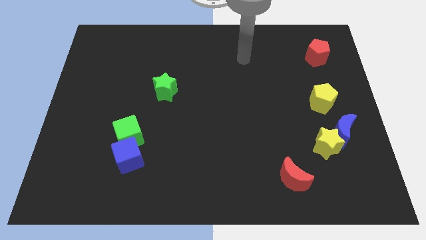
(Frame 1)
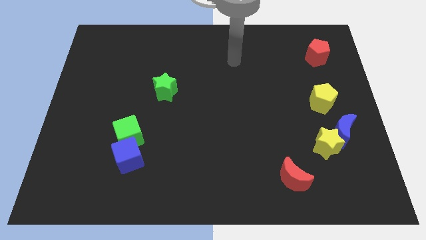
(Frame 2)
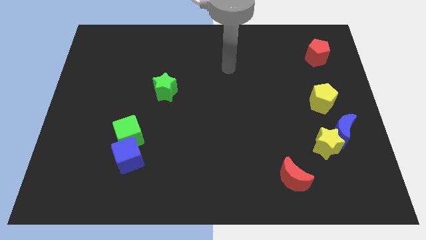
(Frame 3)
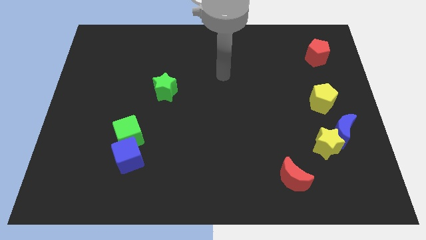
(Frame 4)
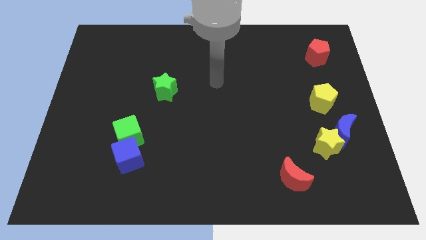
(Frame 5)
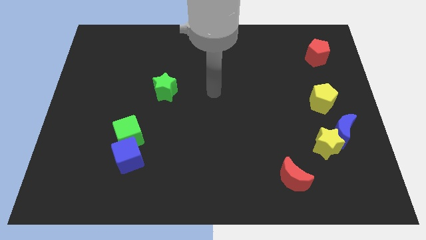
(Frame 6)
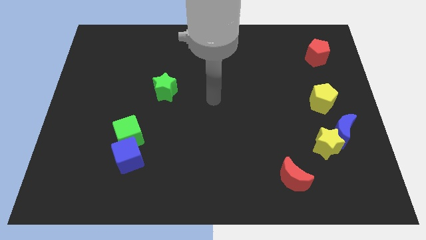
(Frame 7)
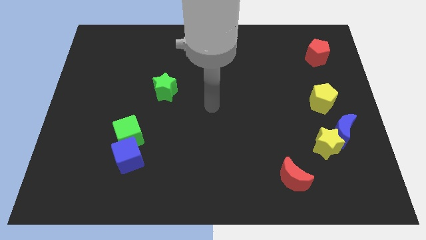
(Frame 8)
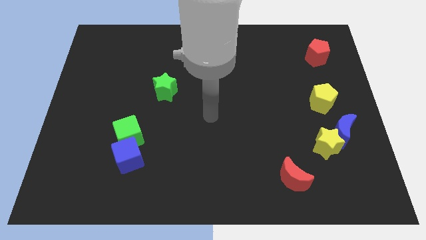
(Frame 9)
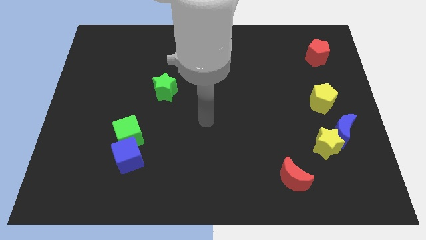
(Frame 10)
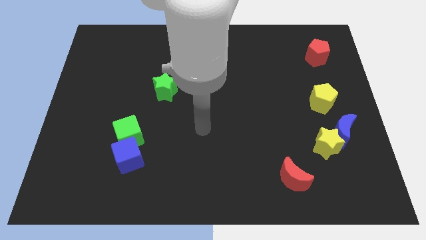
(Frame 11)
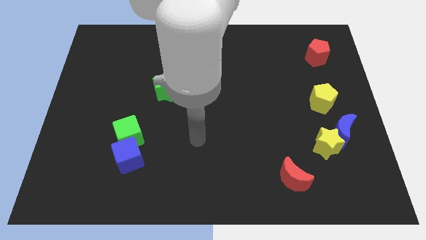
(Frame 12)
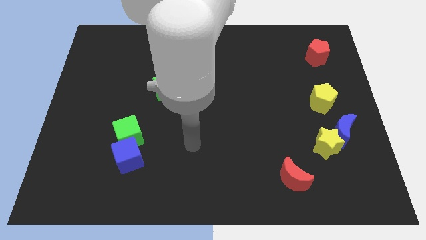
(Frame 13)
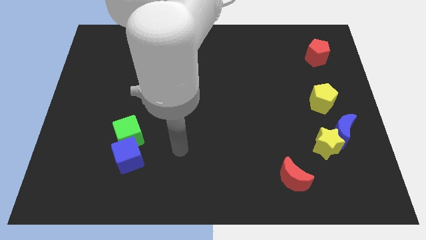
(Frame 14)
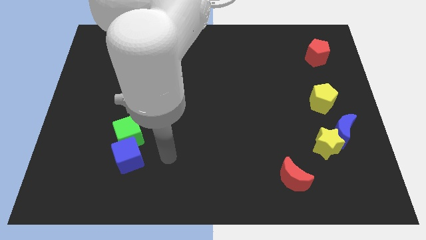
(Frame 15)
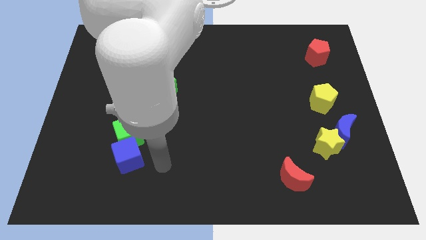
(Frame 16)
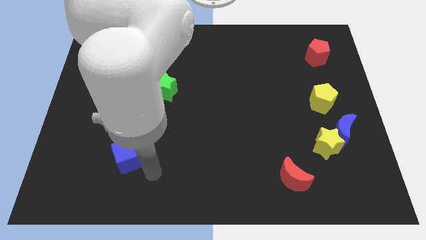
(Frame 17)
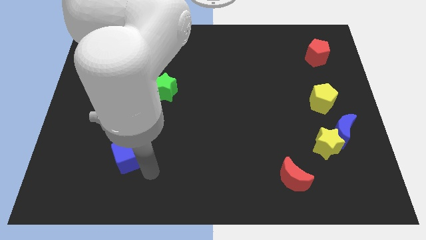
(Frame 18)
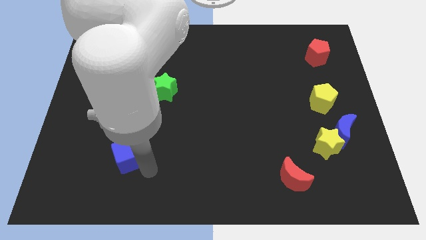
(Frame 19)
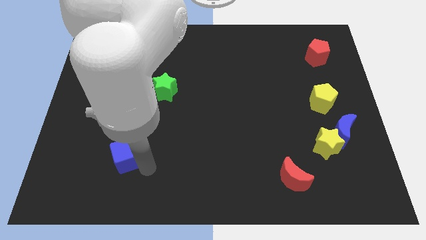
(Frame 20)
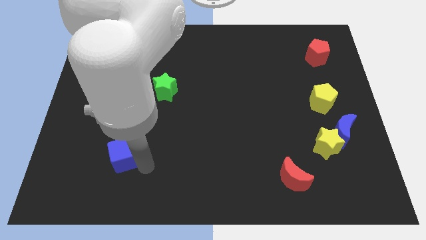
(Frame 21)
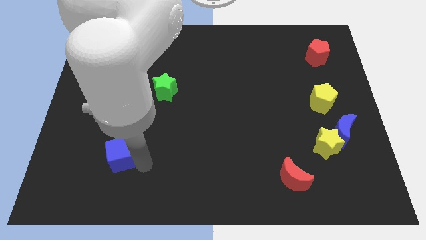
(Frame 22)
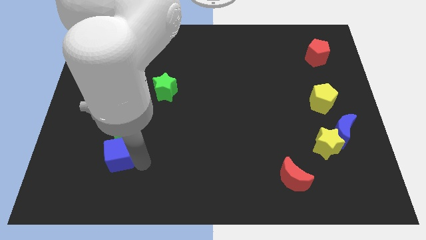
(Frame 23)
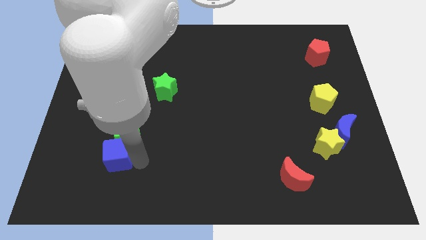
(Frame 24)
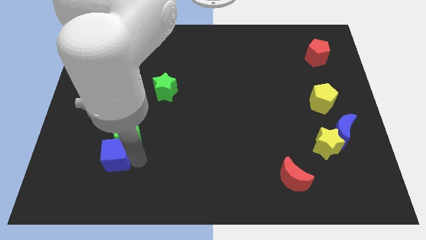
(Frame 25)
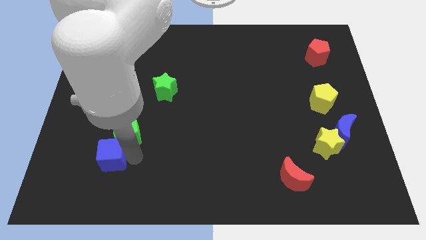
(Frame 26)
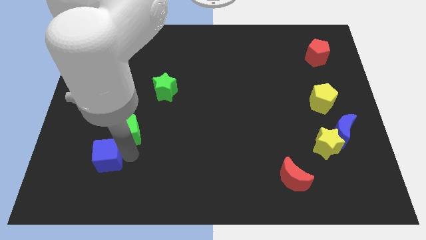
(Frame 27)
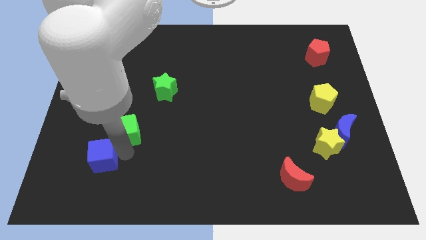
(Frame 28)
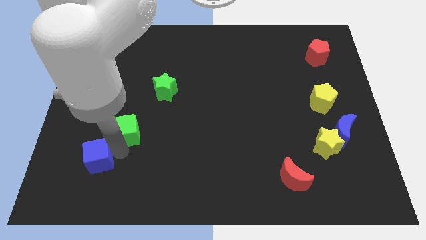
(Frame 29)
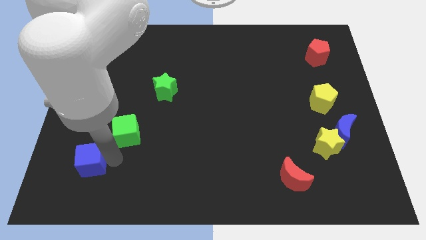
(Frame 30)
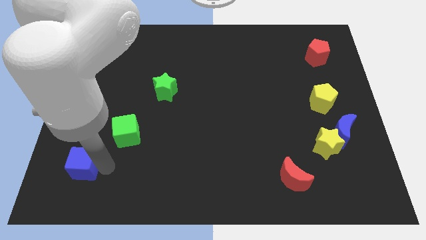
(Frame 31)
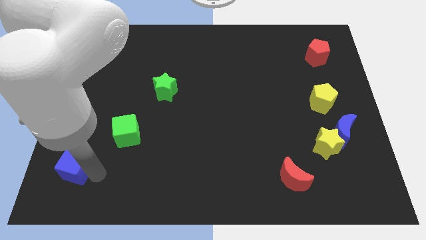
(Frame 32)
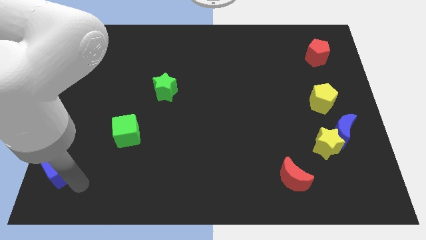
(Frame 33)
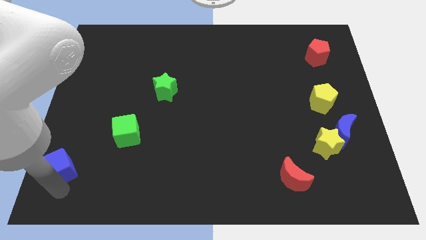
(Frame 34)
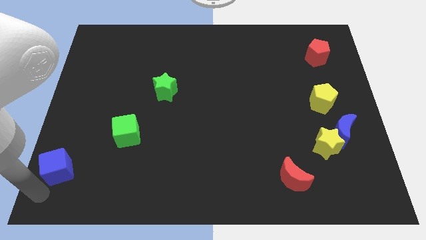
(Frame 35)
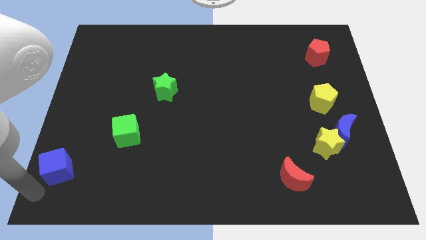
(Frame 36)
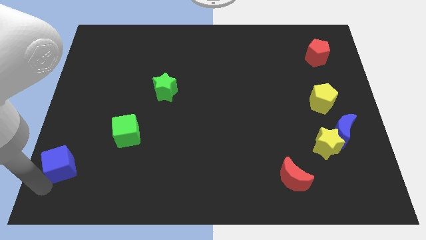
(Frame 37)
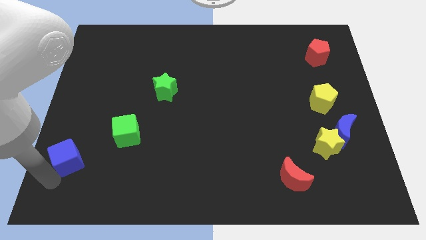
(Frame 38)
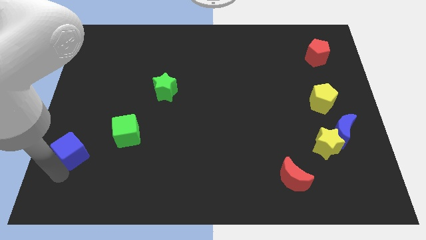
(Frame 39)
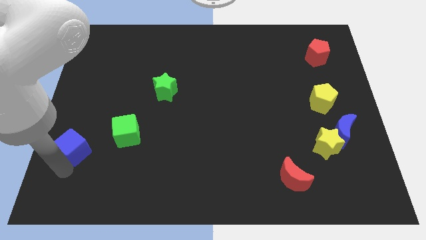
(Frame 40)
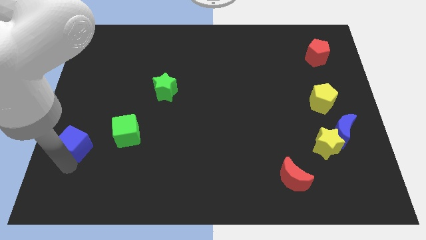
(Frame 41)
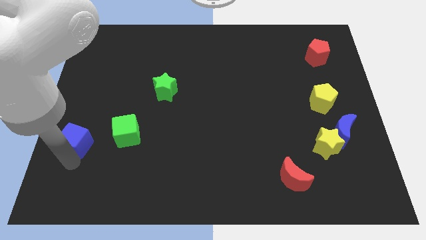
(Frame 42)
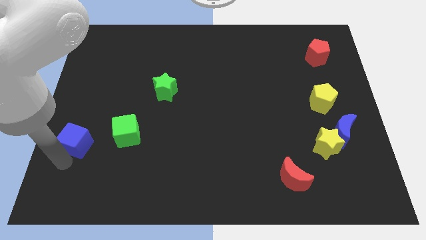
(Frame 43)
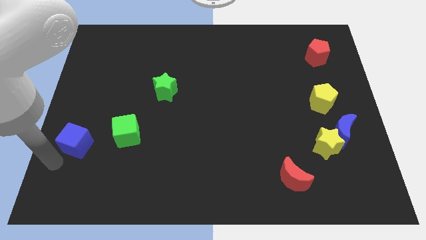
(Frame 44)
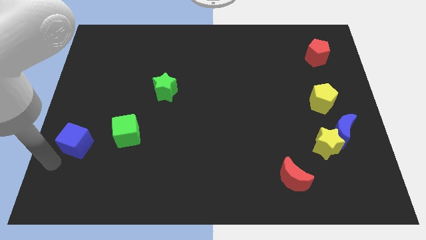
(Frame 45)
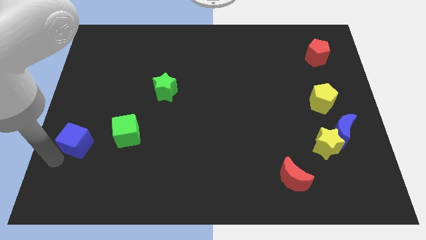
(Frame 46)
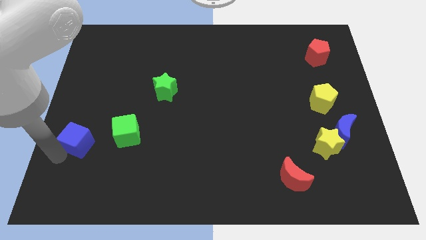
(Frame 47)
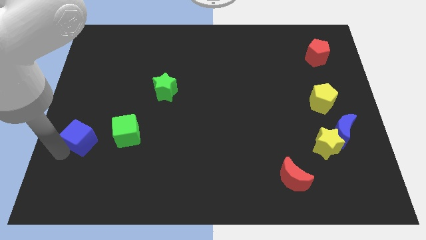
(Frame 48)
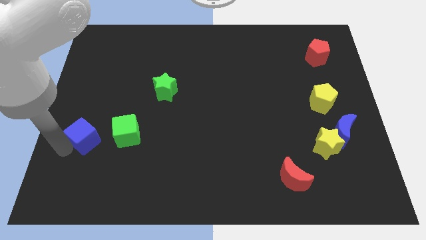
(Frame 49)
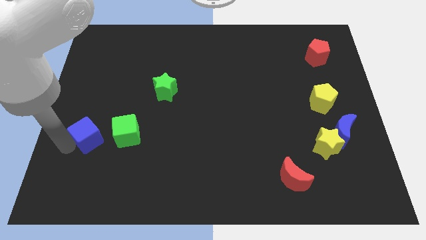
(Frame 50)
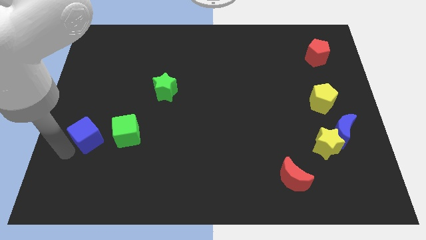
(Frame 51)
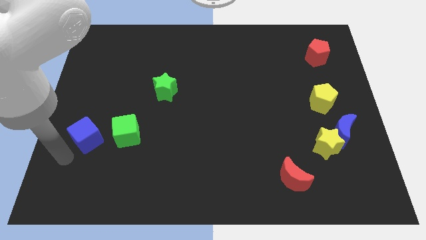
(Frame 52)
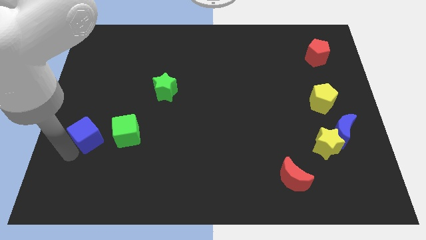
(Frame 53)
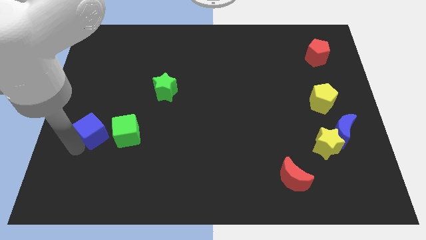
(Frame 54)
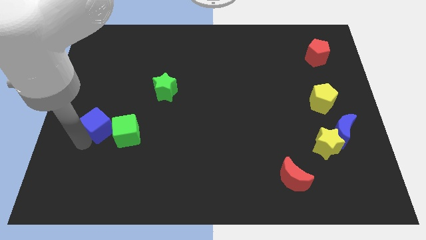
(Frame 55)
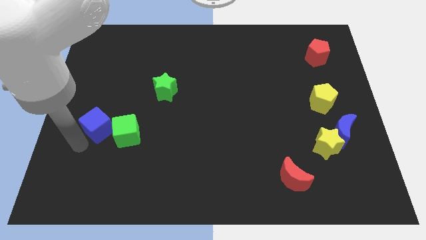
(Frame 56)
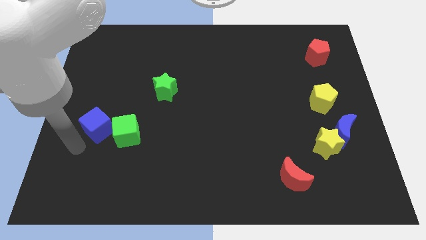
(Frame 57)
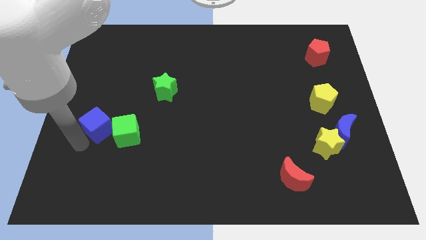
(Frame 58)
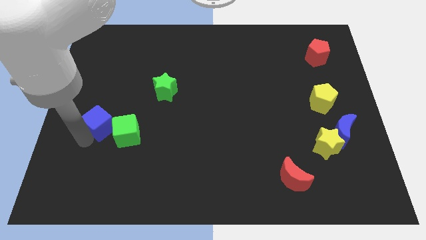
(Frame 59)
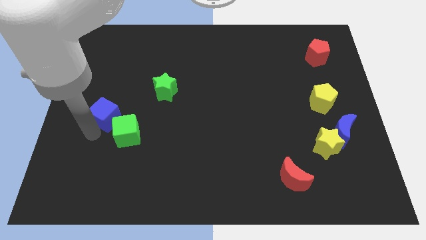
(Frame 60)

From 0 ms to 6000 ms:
push the blue cube slightly up

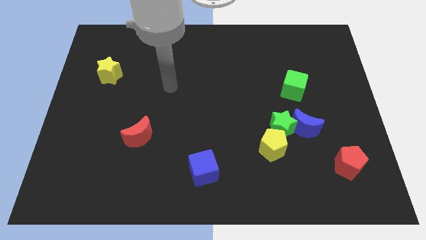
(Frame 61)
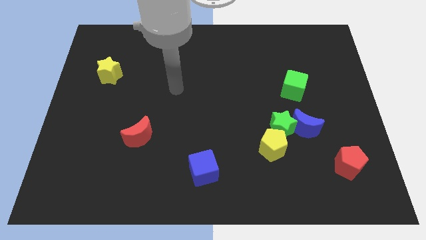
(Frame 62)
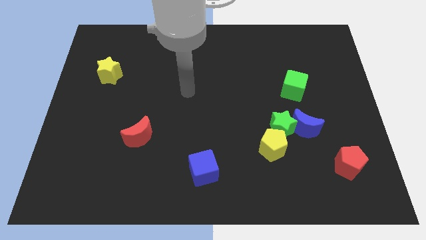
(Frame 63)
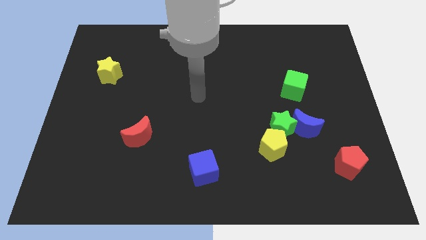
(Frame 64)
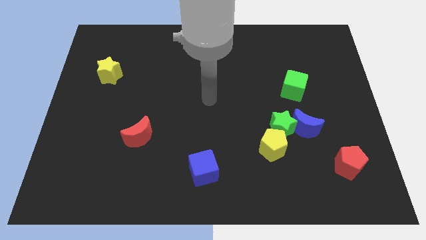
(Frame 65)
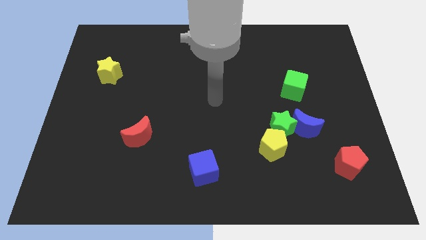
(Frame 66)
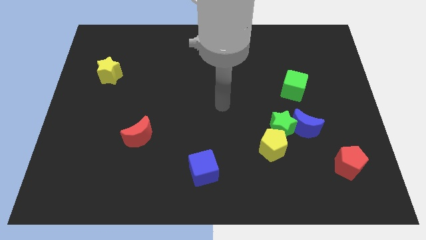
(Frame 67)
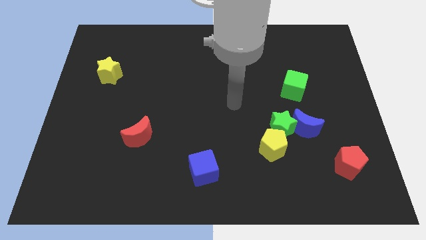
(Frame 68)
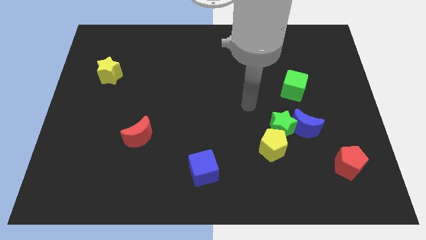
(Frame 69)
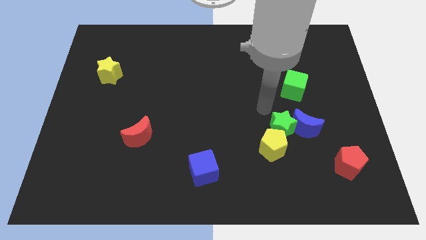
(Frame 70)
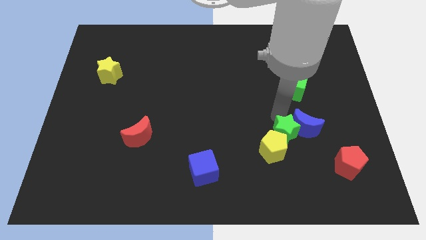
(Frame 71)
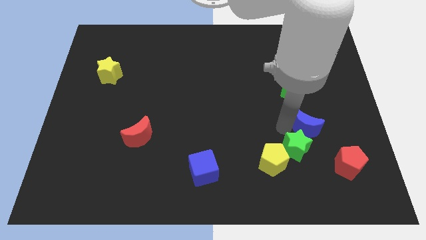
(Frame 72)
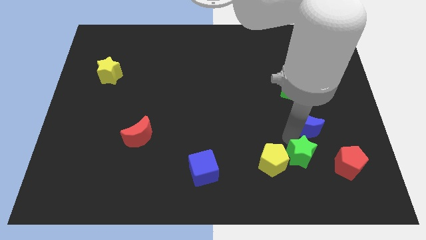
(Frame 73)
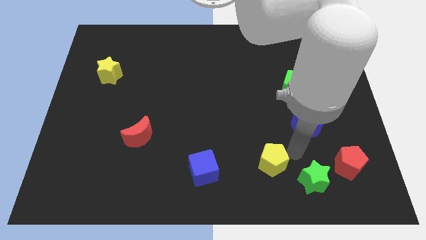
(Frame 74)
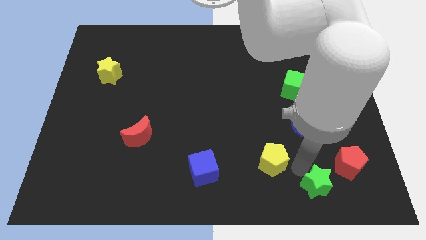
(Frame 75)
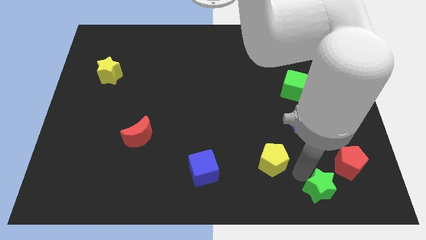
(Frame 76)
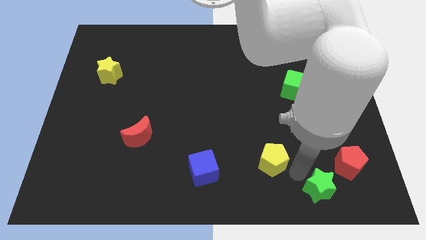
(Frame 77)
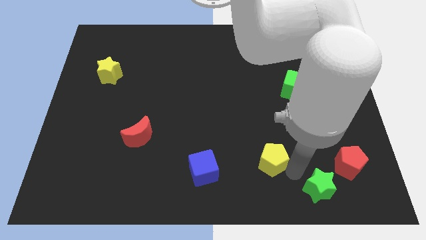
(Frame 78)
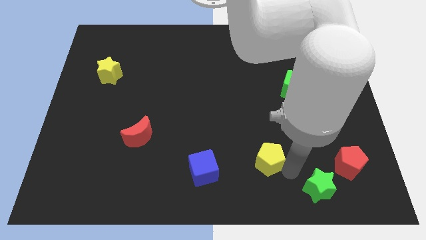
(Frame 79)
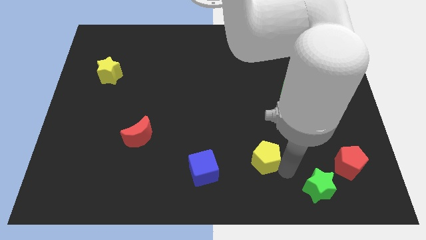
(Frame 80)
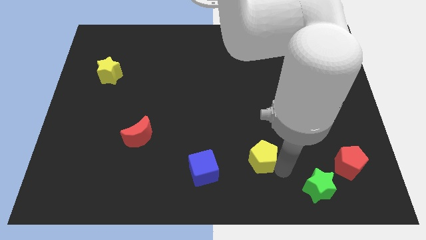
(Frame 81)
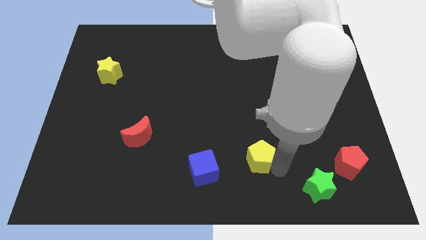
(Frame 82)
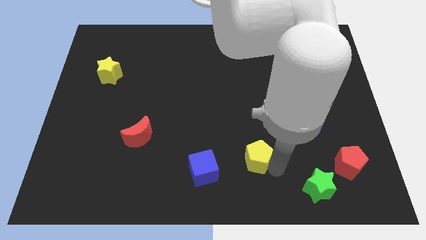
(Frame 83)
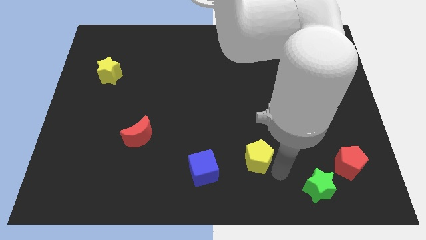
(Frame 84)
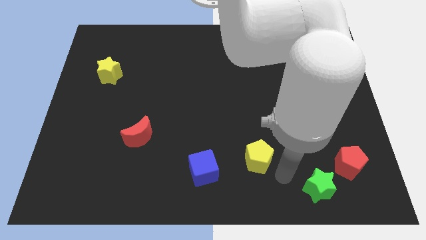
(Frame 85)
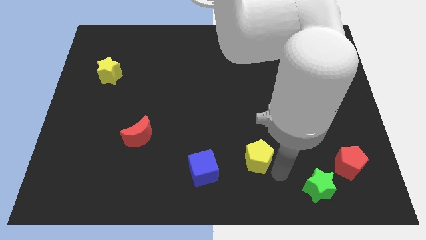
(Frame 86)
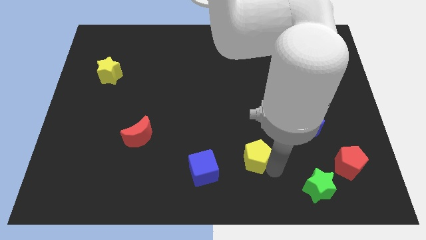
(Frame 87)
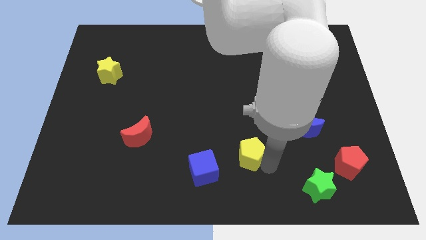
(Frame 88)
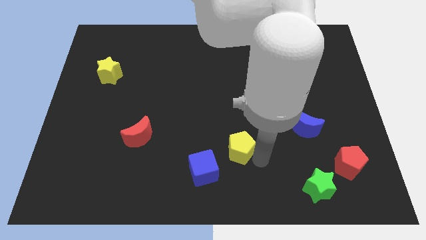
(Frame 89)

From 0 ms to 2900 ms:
slightly move the yellow pentagon left
